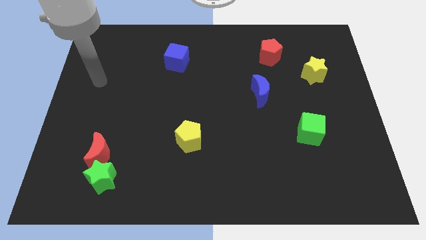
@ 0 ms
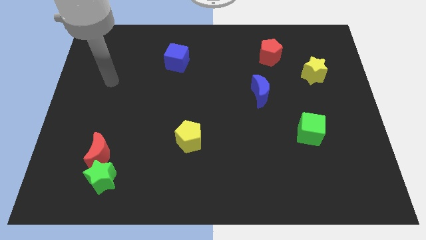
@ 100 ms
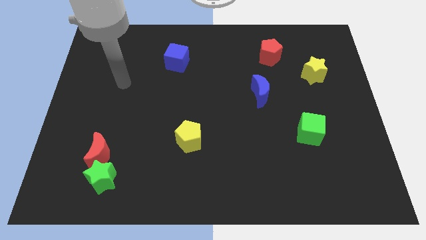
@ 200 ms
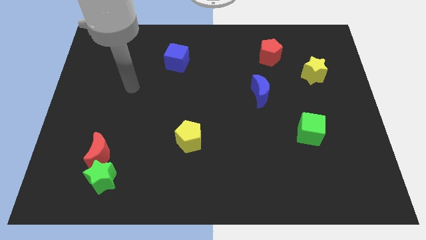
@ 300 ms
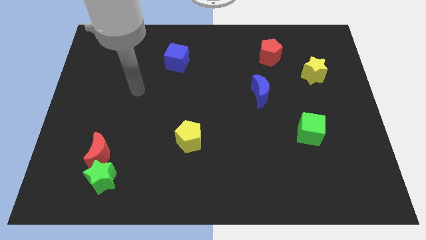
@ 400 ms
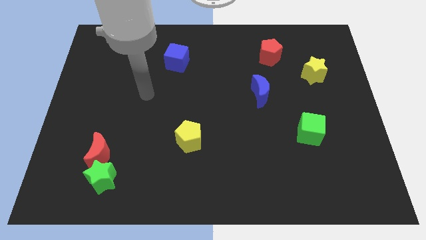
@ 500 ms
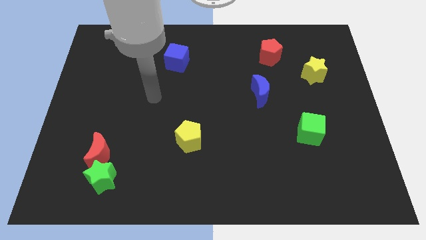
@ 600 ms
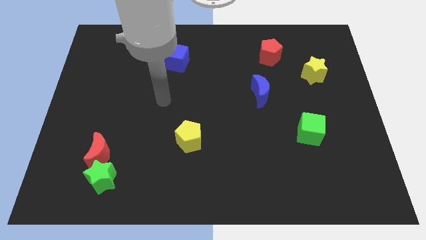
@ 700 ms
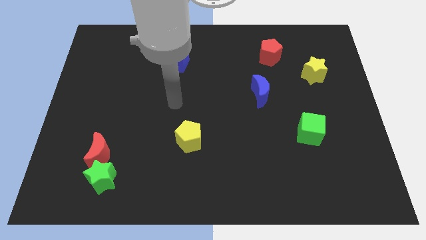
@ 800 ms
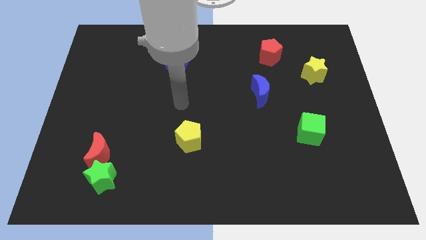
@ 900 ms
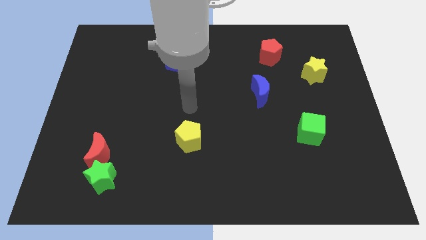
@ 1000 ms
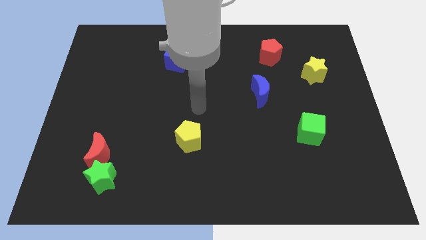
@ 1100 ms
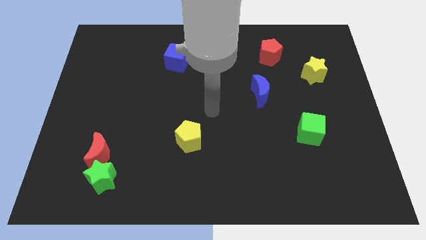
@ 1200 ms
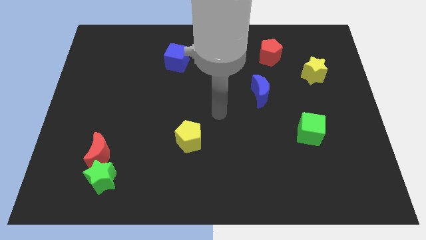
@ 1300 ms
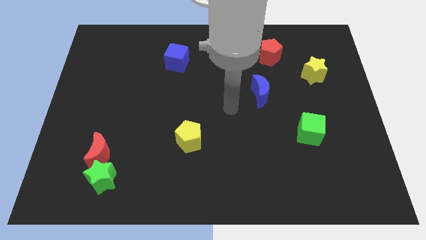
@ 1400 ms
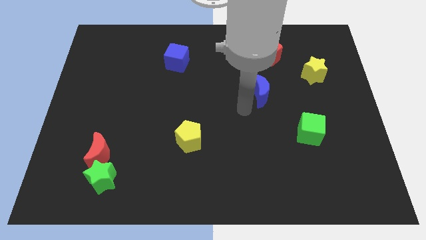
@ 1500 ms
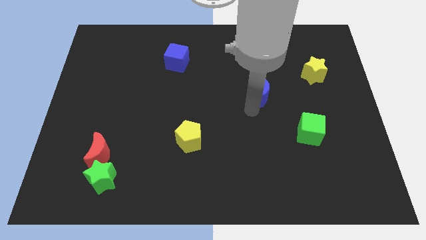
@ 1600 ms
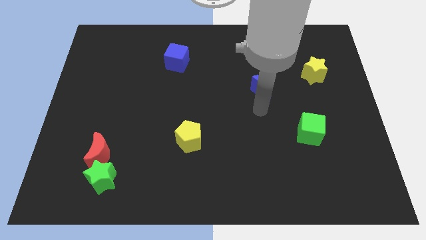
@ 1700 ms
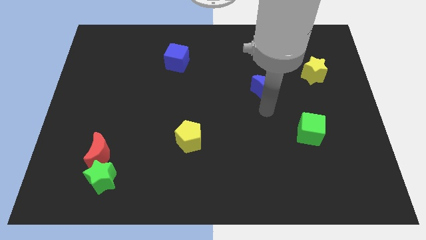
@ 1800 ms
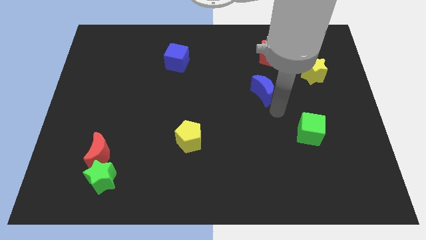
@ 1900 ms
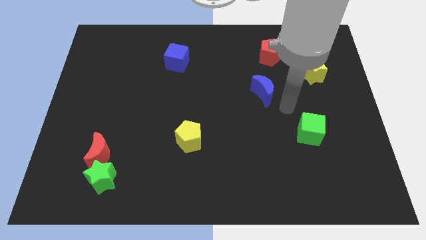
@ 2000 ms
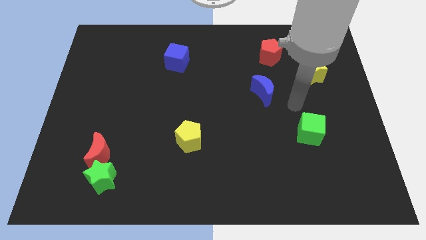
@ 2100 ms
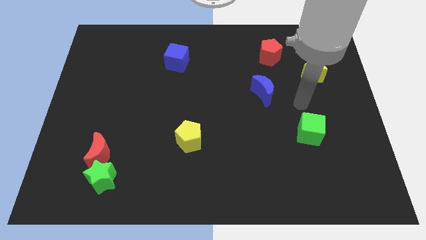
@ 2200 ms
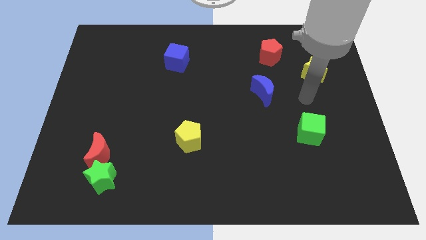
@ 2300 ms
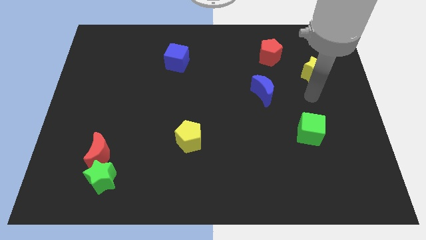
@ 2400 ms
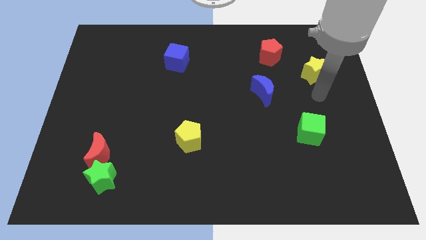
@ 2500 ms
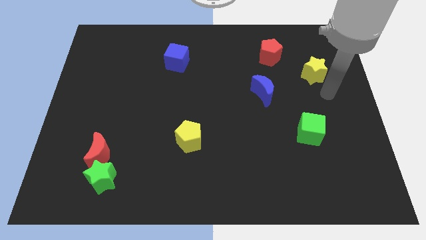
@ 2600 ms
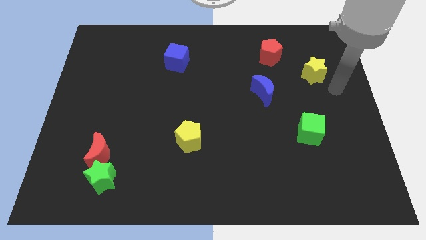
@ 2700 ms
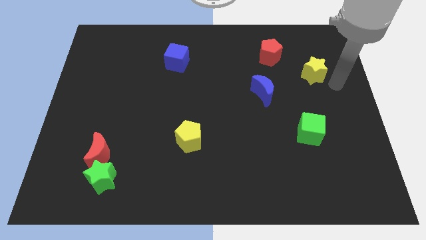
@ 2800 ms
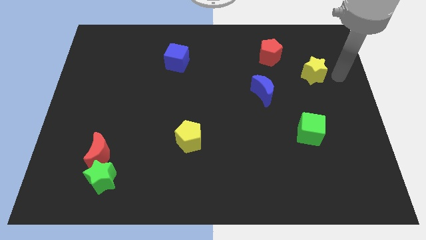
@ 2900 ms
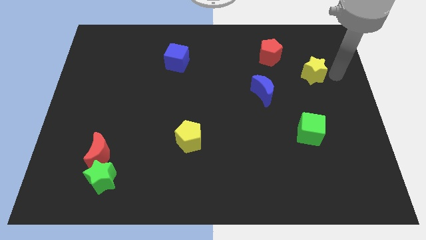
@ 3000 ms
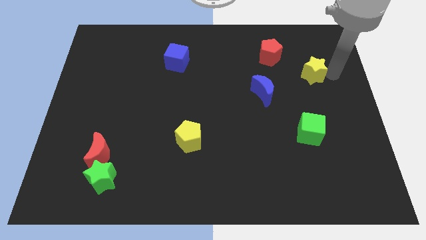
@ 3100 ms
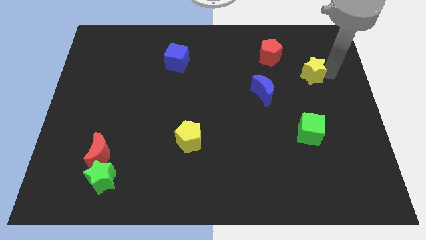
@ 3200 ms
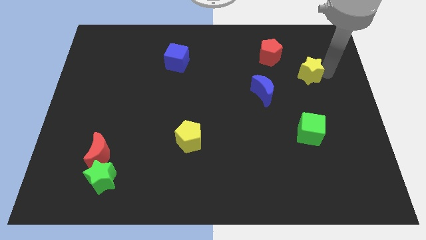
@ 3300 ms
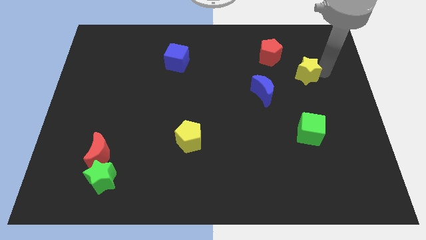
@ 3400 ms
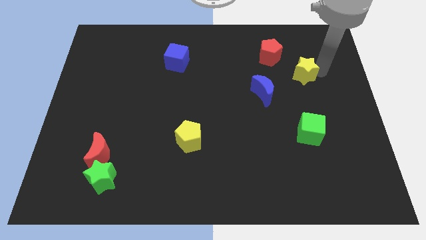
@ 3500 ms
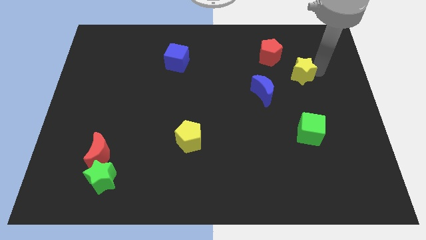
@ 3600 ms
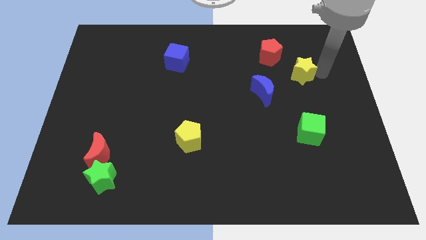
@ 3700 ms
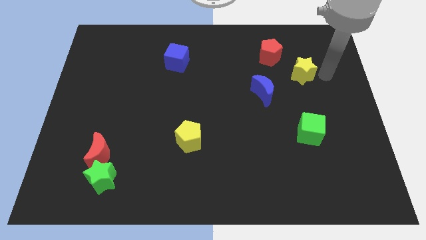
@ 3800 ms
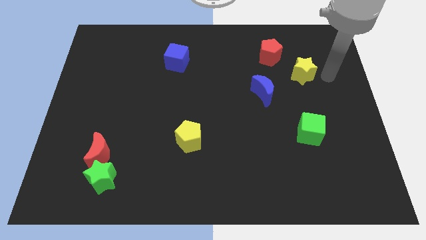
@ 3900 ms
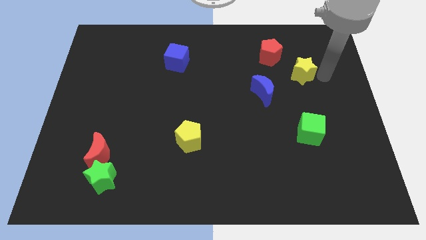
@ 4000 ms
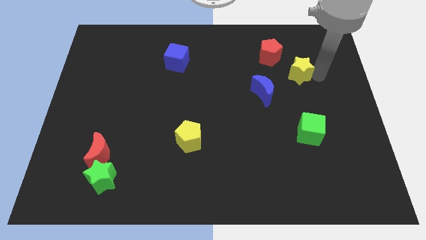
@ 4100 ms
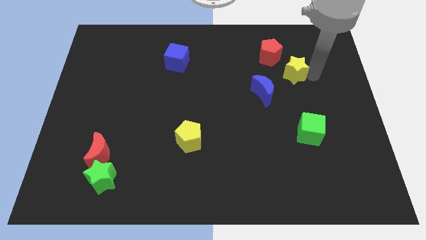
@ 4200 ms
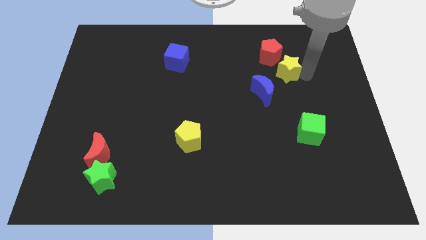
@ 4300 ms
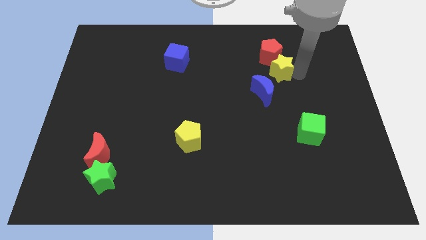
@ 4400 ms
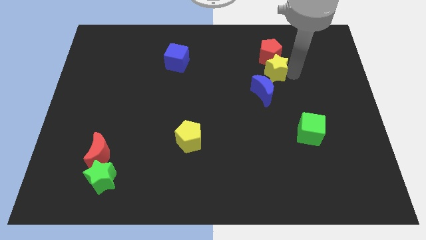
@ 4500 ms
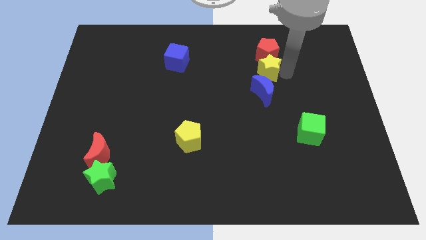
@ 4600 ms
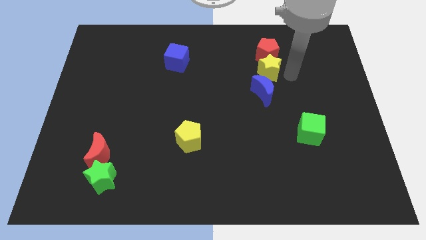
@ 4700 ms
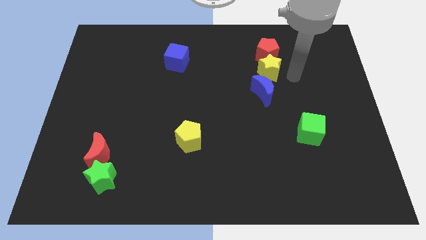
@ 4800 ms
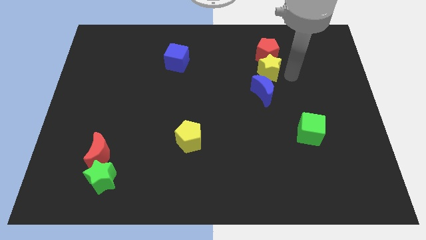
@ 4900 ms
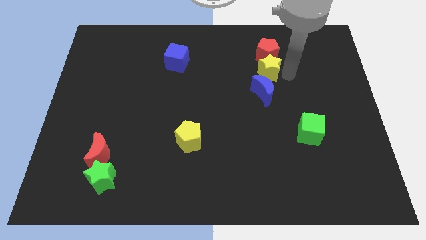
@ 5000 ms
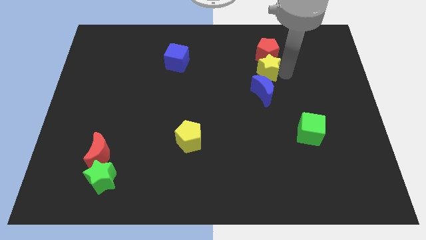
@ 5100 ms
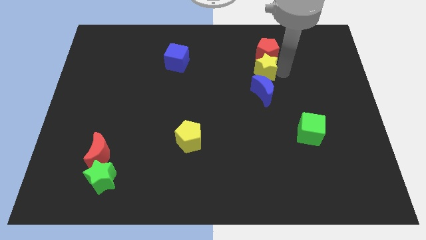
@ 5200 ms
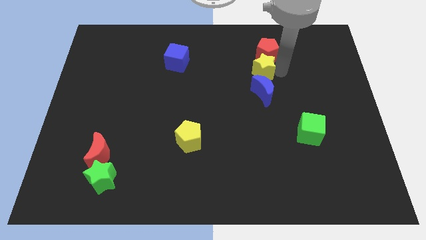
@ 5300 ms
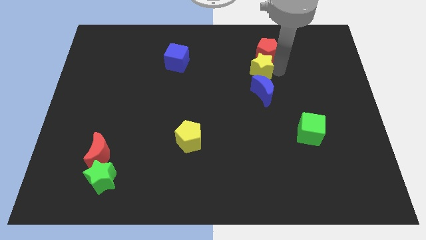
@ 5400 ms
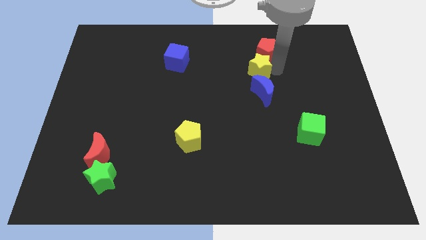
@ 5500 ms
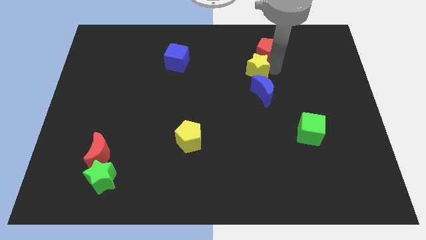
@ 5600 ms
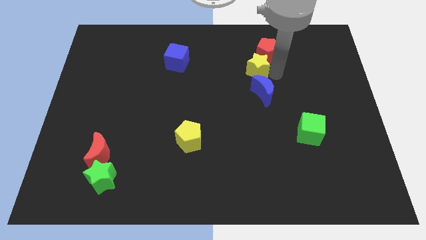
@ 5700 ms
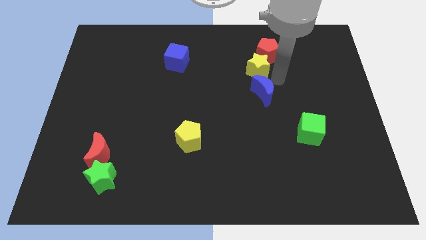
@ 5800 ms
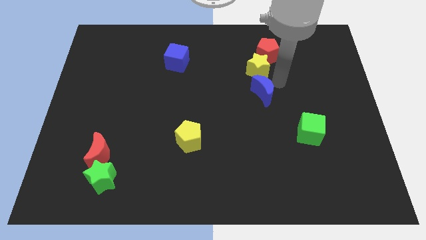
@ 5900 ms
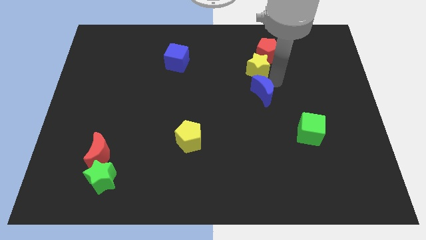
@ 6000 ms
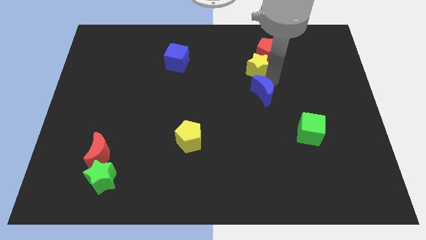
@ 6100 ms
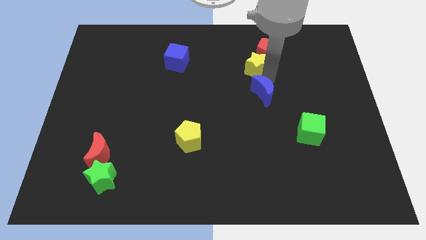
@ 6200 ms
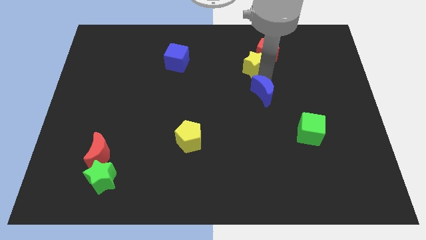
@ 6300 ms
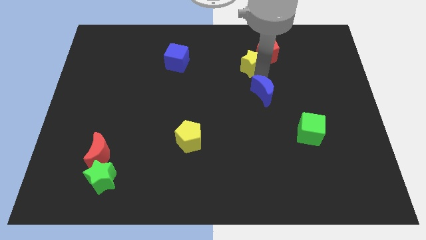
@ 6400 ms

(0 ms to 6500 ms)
slide the yellow star to the left side of the red pentagon

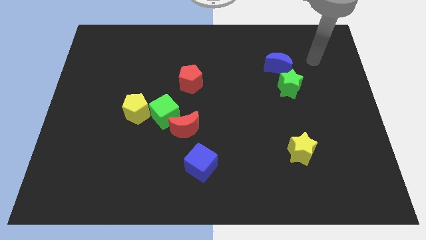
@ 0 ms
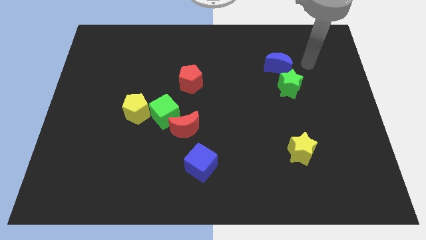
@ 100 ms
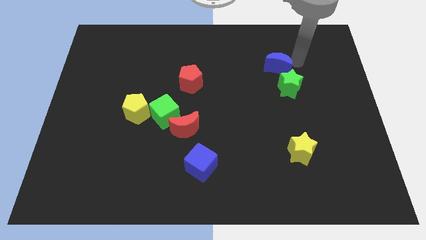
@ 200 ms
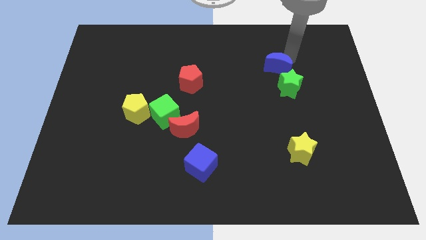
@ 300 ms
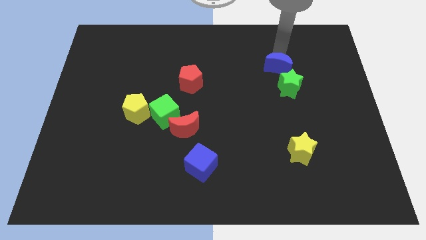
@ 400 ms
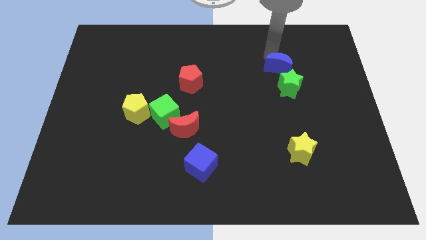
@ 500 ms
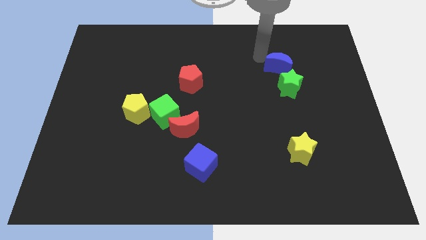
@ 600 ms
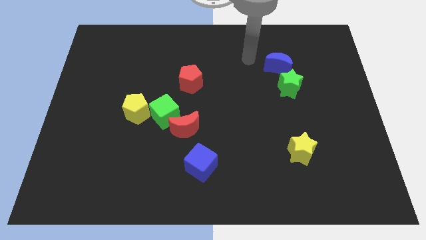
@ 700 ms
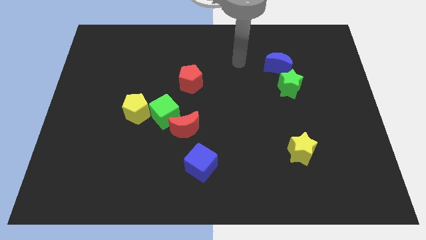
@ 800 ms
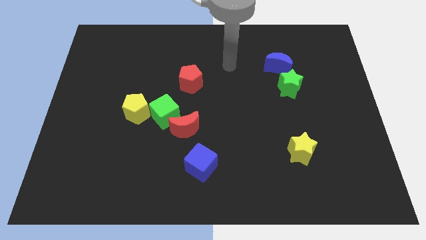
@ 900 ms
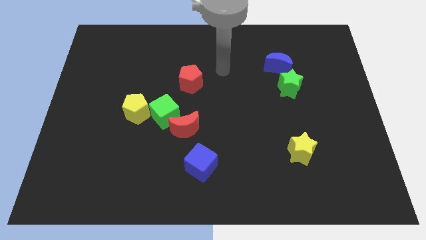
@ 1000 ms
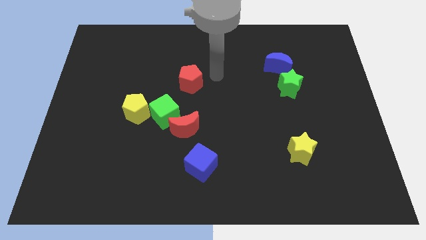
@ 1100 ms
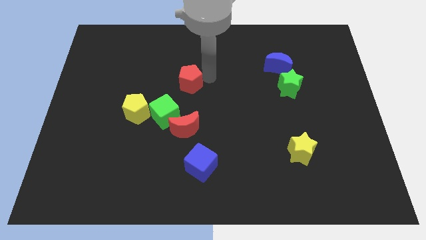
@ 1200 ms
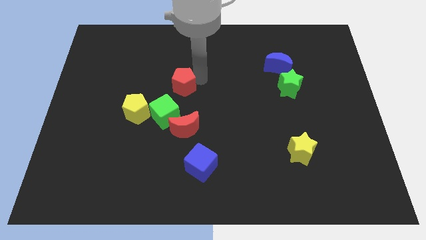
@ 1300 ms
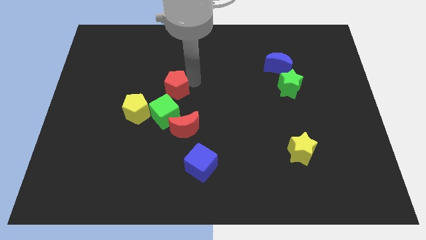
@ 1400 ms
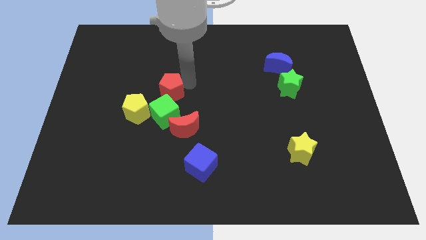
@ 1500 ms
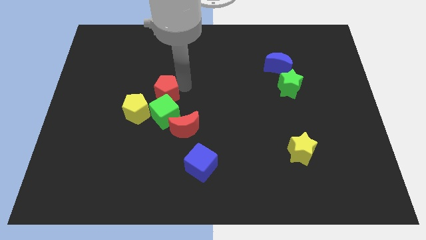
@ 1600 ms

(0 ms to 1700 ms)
move the red pentagon to the top left of the green cube
